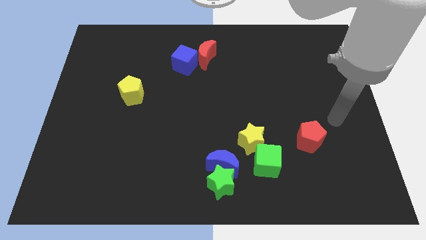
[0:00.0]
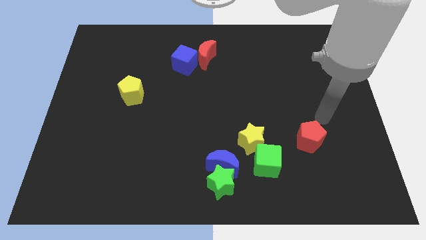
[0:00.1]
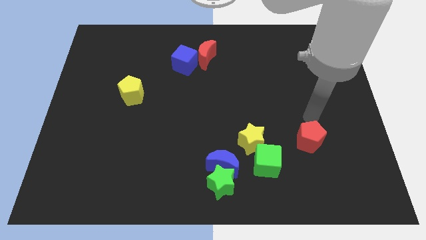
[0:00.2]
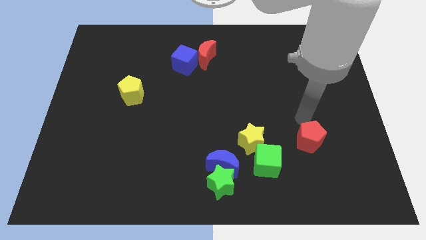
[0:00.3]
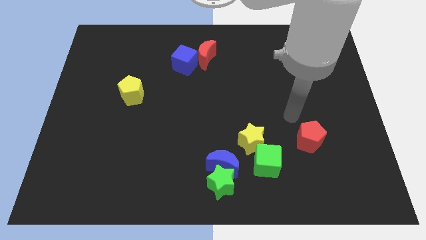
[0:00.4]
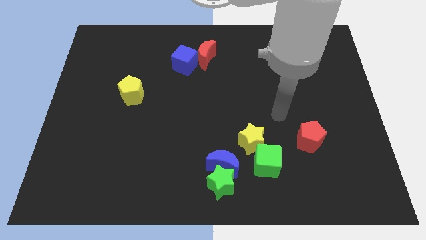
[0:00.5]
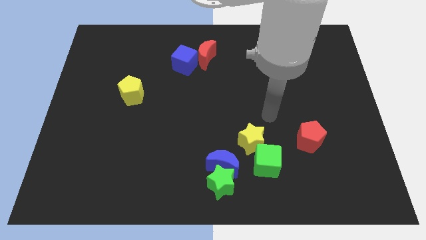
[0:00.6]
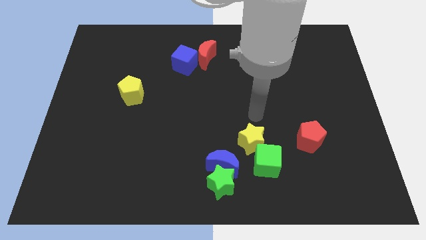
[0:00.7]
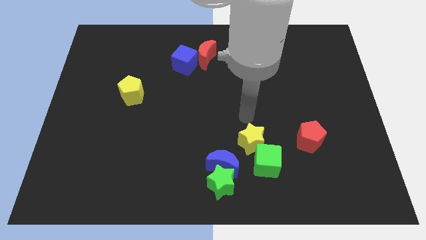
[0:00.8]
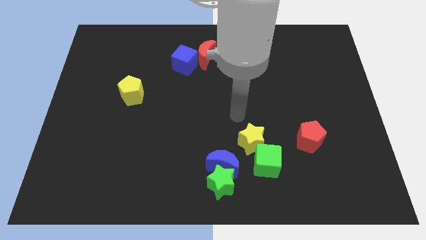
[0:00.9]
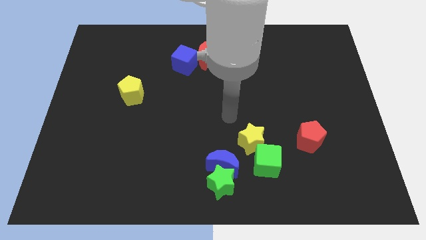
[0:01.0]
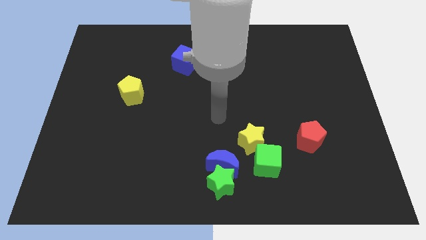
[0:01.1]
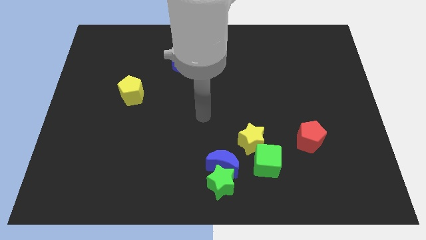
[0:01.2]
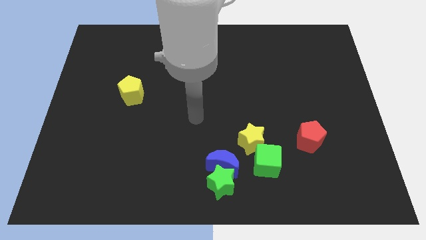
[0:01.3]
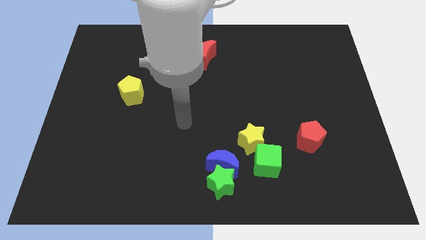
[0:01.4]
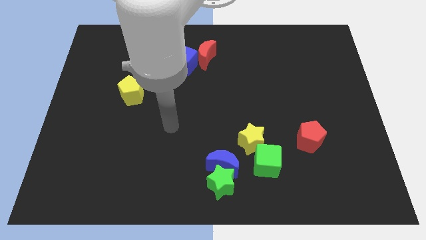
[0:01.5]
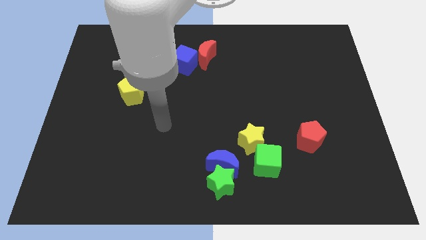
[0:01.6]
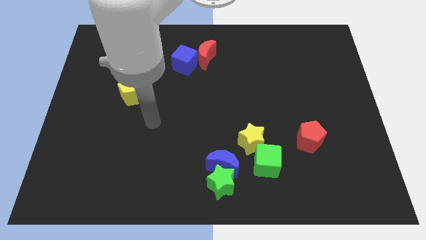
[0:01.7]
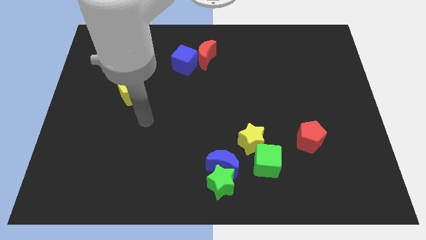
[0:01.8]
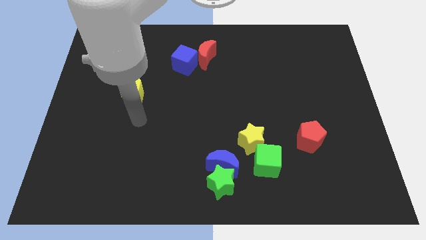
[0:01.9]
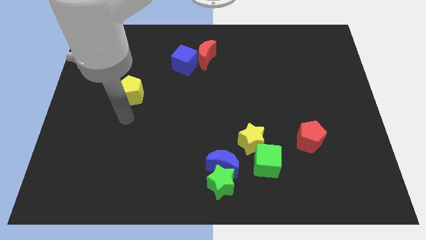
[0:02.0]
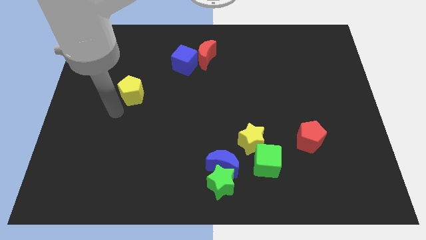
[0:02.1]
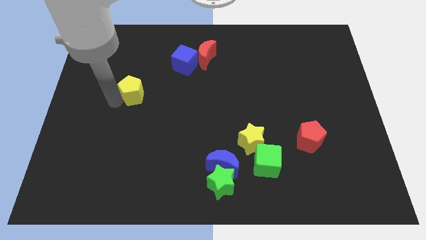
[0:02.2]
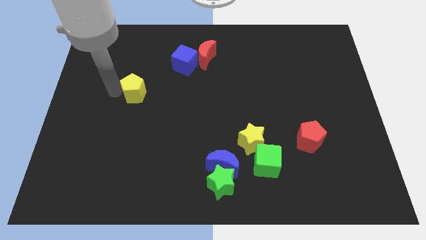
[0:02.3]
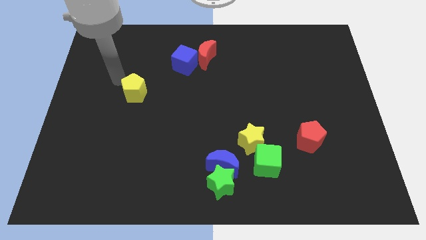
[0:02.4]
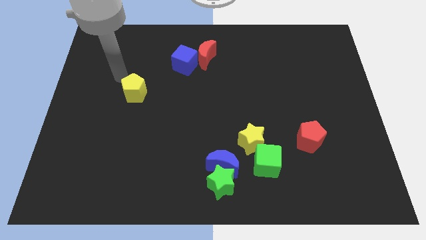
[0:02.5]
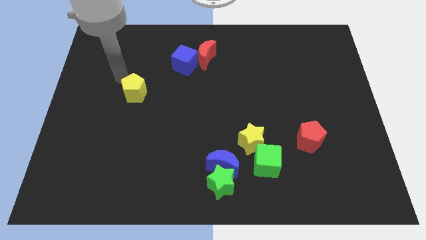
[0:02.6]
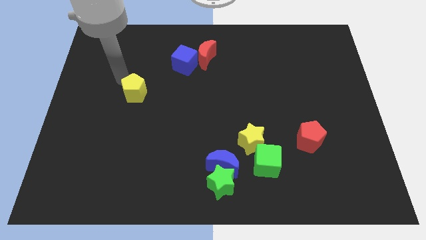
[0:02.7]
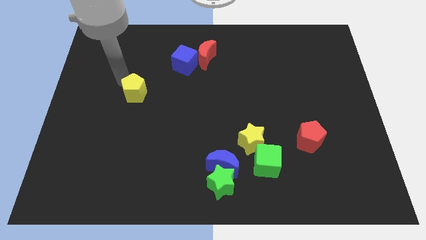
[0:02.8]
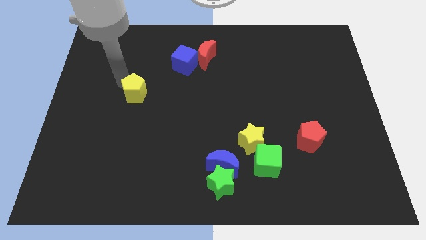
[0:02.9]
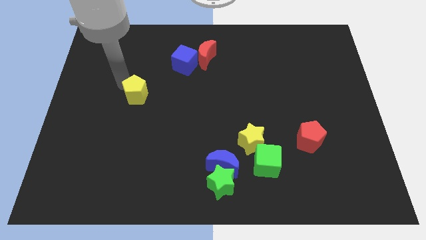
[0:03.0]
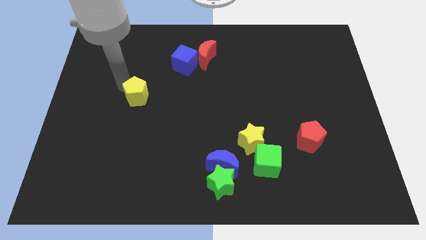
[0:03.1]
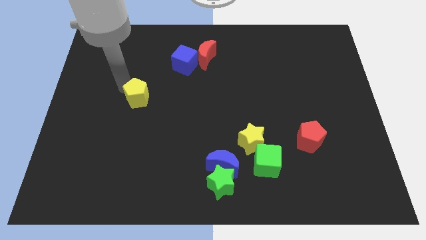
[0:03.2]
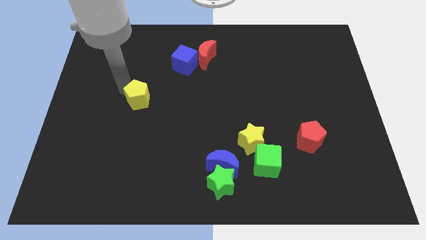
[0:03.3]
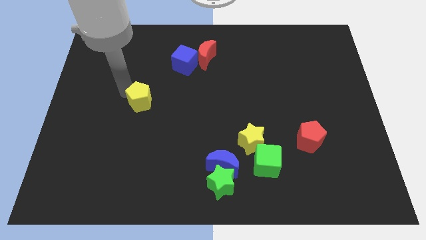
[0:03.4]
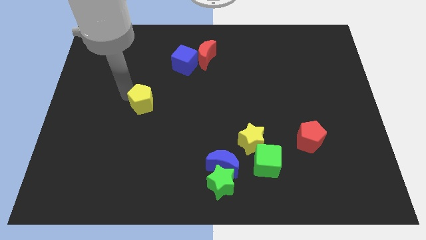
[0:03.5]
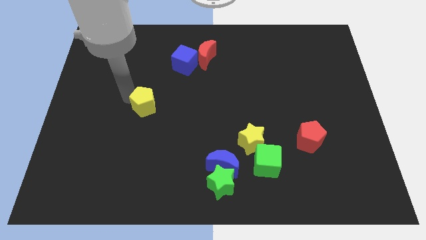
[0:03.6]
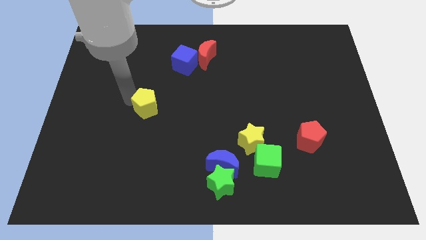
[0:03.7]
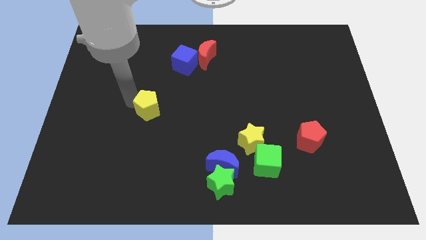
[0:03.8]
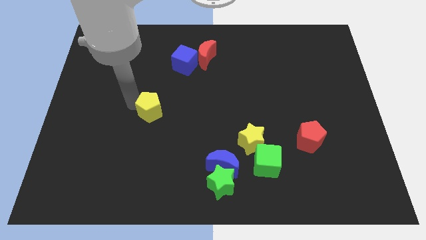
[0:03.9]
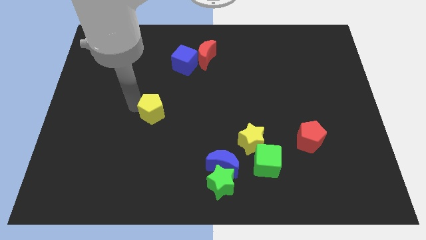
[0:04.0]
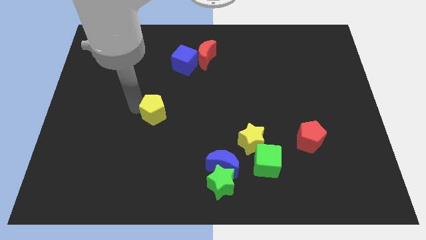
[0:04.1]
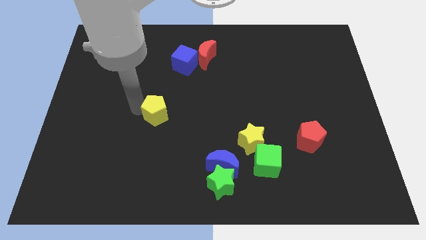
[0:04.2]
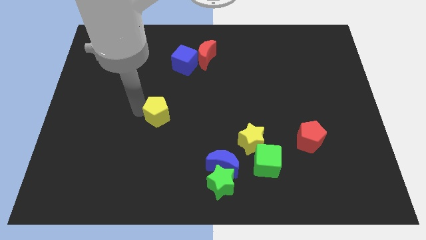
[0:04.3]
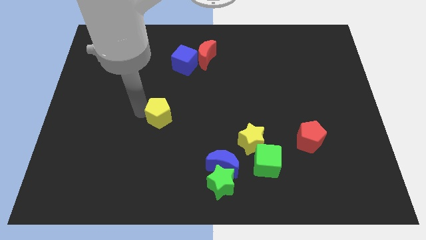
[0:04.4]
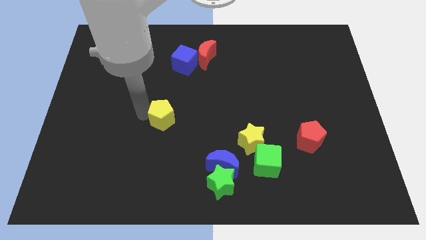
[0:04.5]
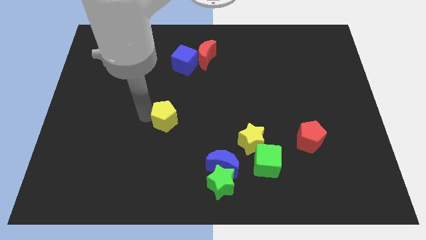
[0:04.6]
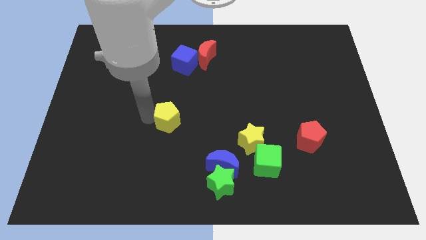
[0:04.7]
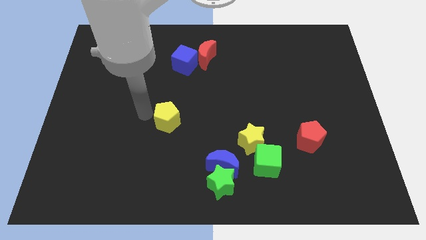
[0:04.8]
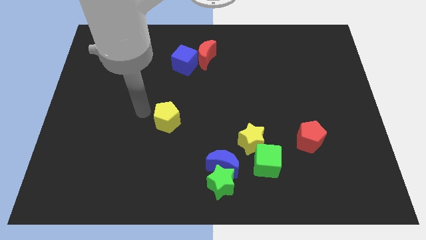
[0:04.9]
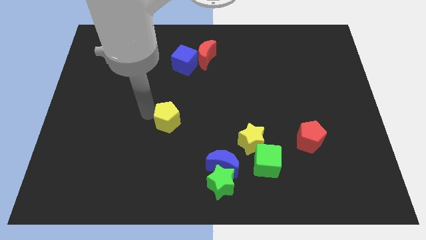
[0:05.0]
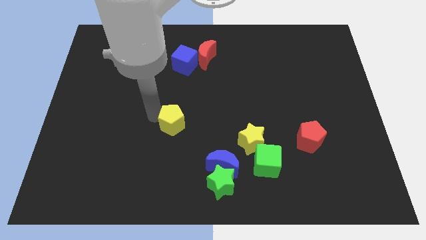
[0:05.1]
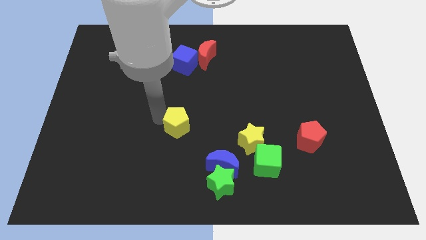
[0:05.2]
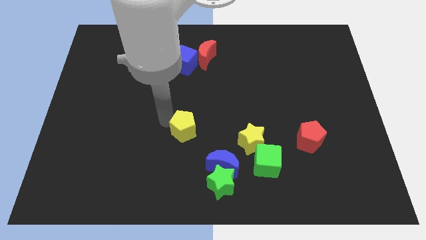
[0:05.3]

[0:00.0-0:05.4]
put the yellow pentagon to the left side of the yellow star

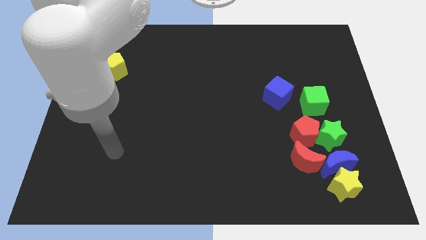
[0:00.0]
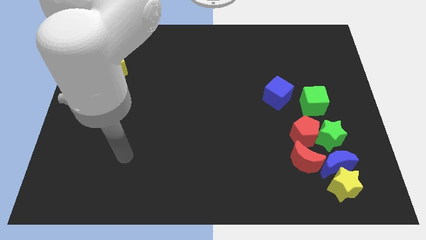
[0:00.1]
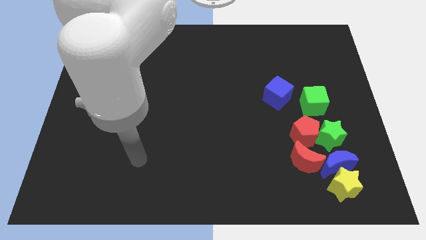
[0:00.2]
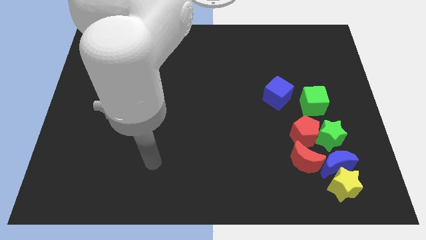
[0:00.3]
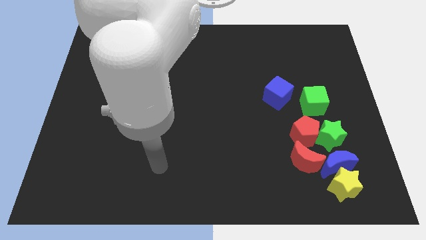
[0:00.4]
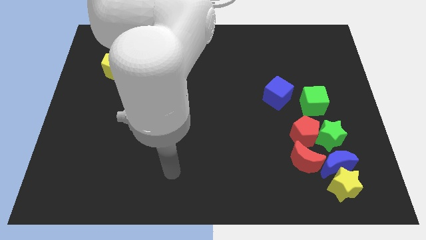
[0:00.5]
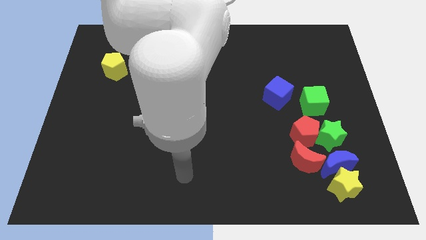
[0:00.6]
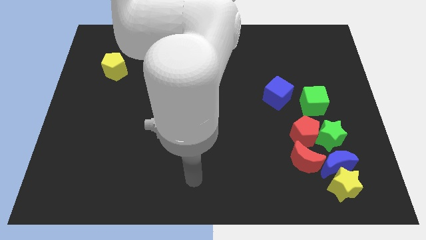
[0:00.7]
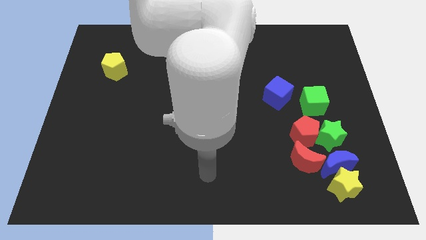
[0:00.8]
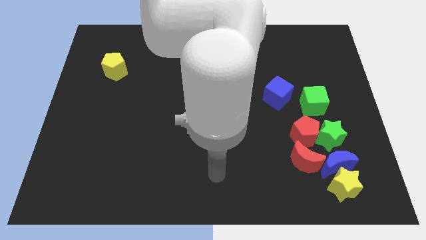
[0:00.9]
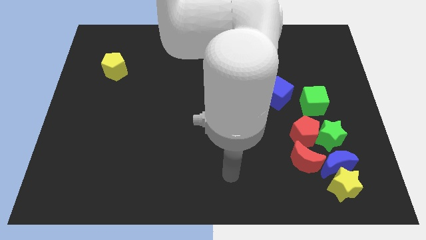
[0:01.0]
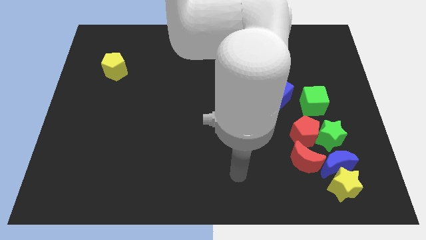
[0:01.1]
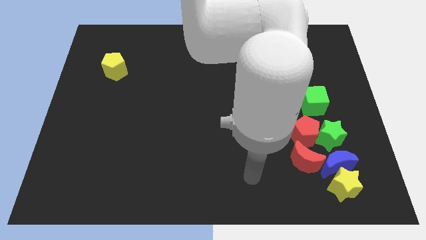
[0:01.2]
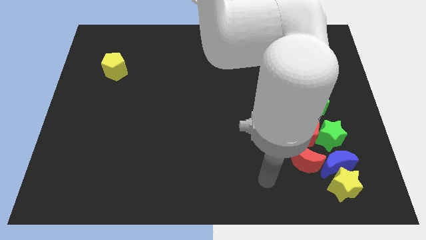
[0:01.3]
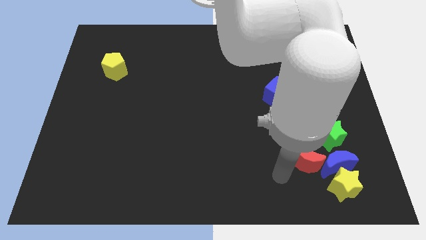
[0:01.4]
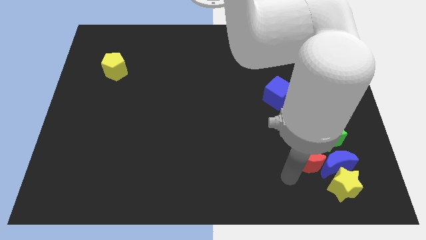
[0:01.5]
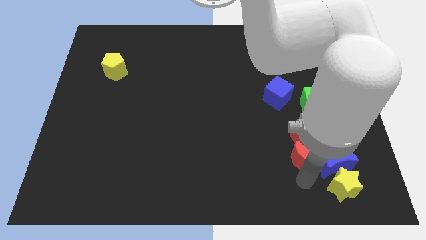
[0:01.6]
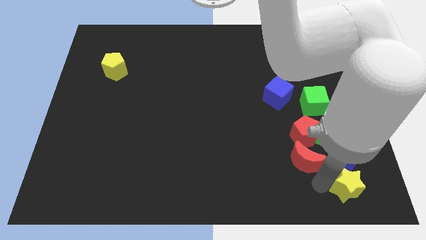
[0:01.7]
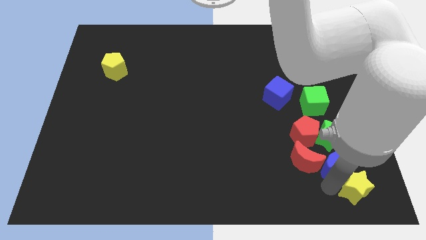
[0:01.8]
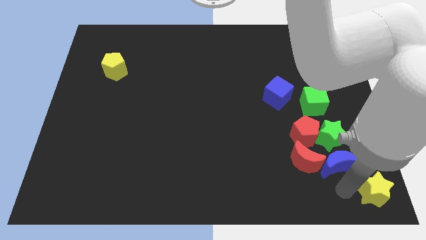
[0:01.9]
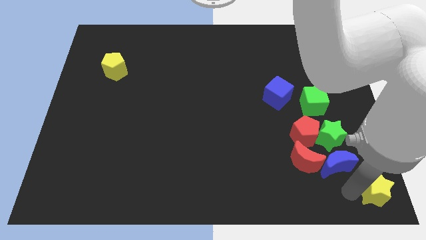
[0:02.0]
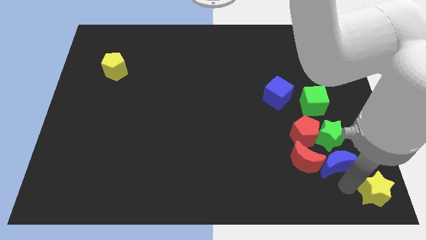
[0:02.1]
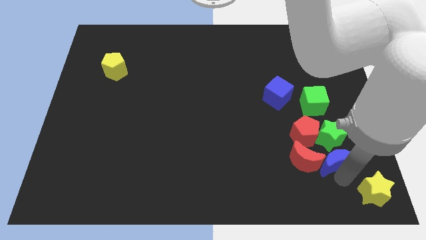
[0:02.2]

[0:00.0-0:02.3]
move the blue moon below the green cube
